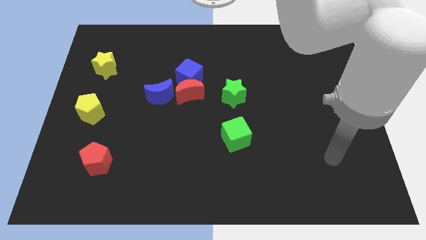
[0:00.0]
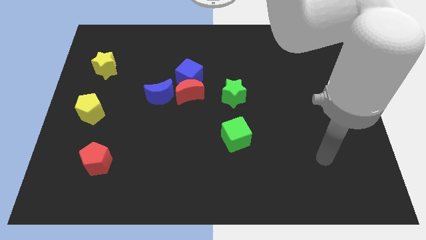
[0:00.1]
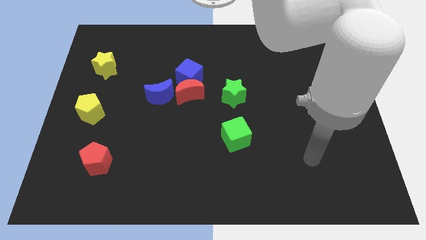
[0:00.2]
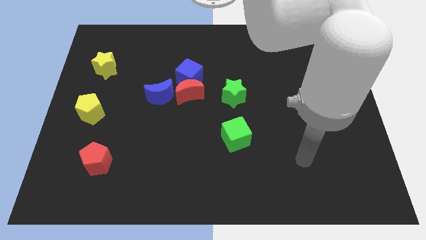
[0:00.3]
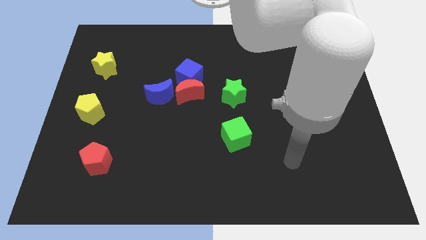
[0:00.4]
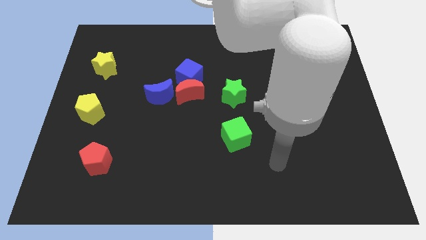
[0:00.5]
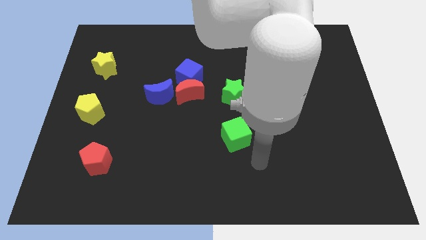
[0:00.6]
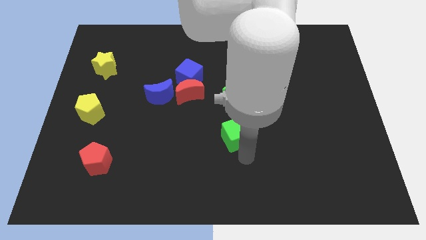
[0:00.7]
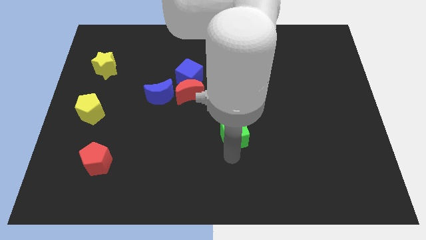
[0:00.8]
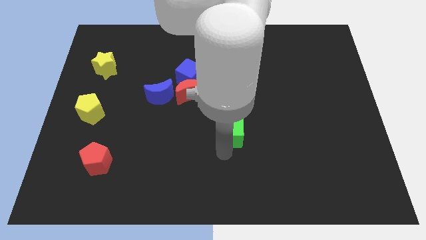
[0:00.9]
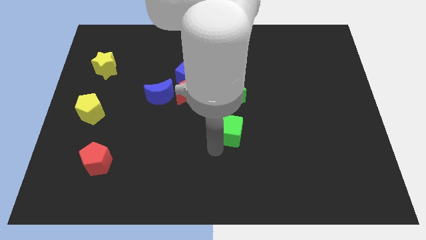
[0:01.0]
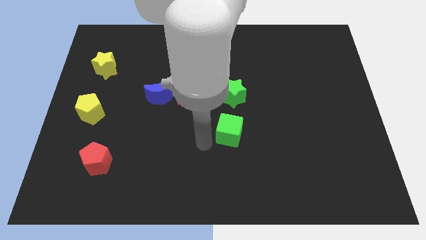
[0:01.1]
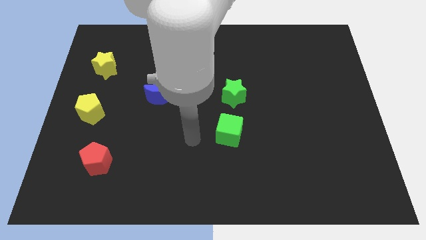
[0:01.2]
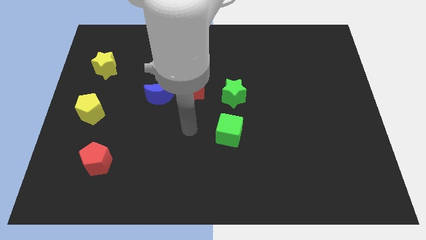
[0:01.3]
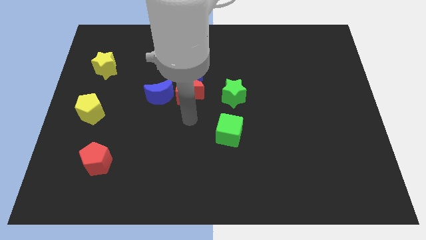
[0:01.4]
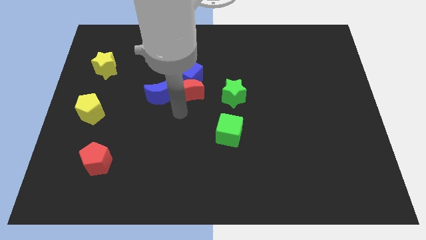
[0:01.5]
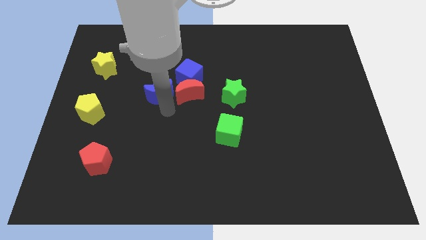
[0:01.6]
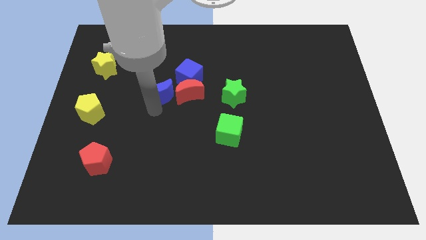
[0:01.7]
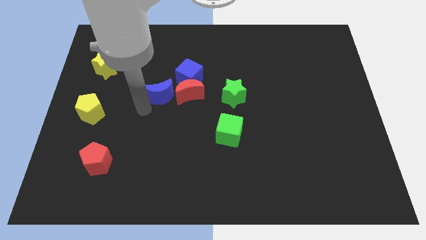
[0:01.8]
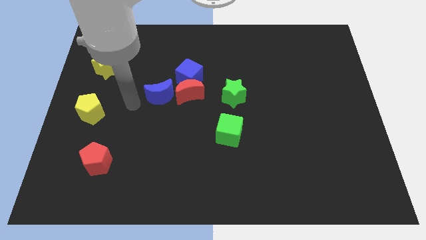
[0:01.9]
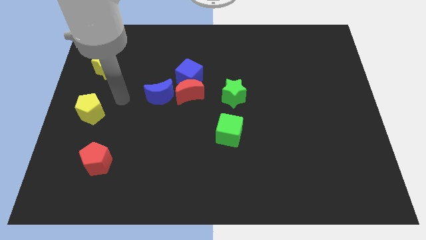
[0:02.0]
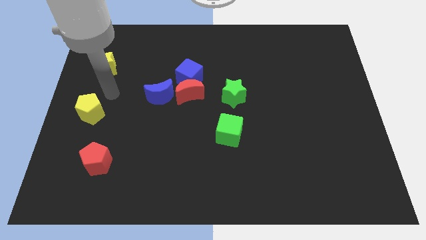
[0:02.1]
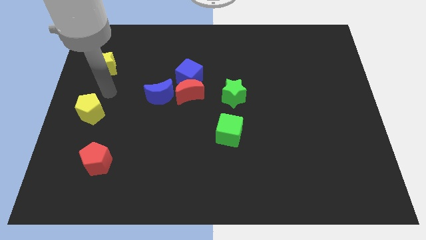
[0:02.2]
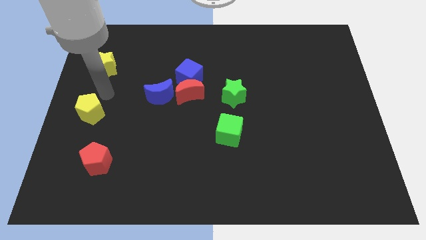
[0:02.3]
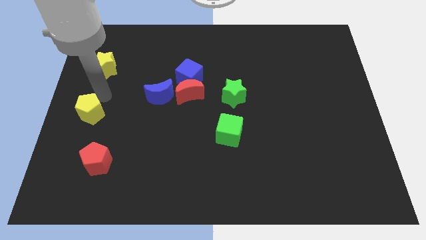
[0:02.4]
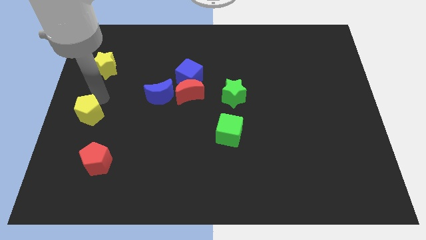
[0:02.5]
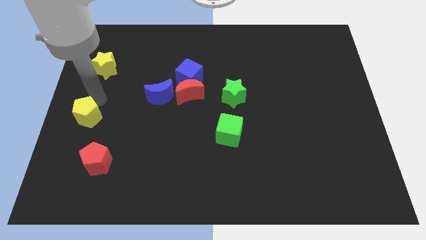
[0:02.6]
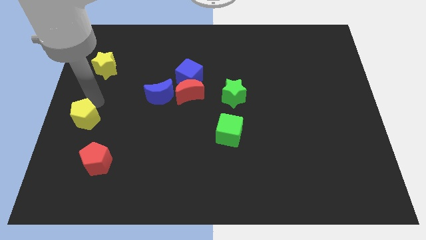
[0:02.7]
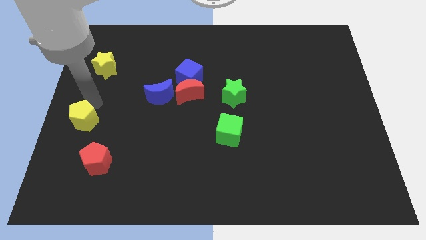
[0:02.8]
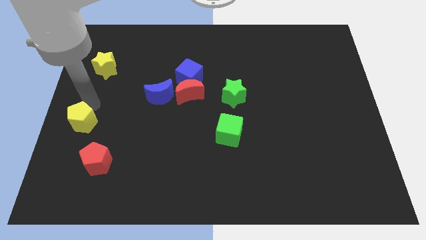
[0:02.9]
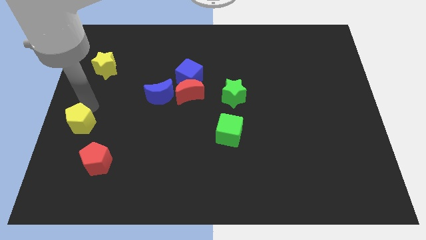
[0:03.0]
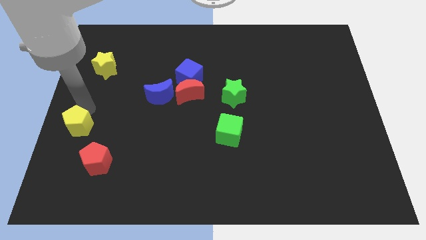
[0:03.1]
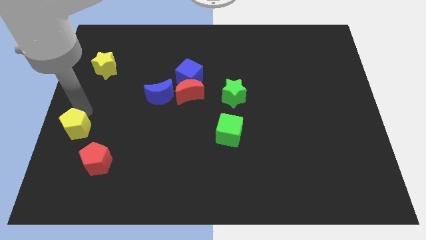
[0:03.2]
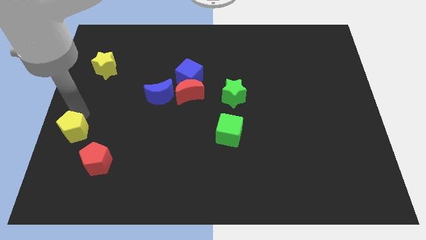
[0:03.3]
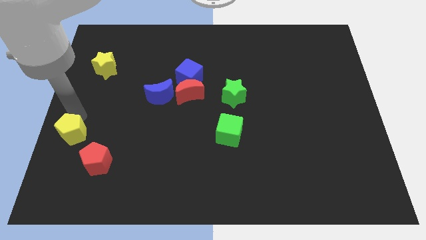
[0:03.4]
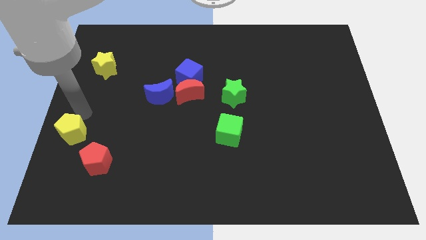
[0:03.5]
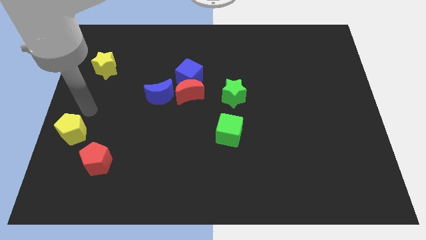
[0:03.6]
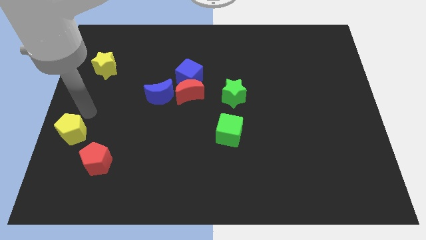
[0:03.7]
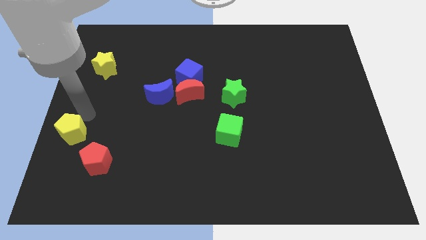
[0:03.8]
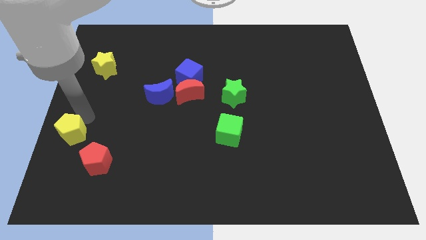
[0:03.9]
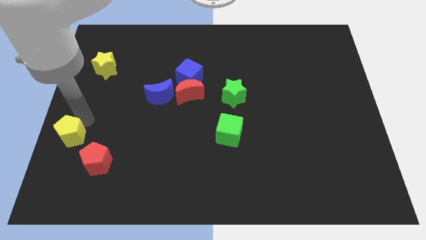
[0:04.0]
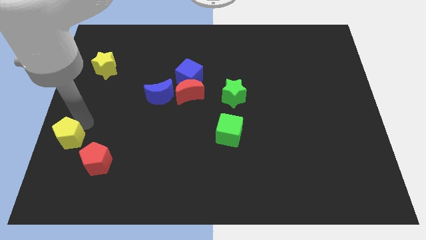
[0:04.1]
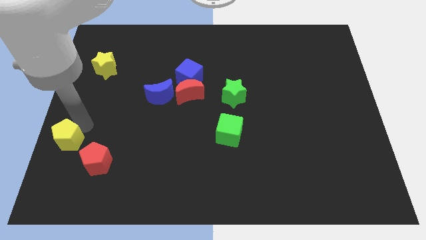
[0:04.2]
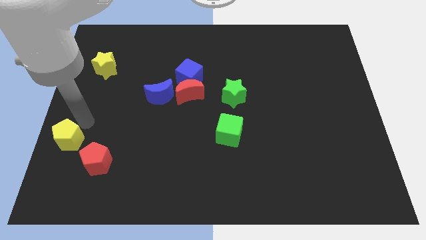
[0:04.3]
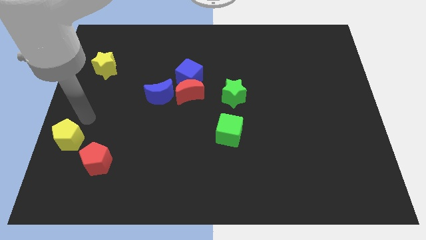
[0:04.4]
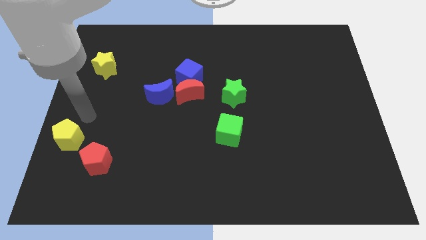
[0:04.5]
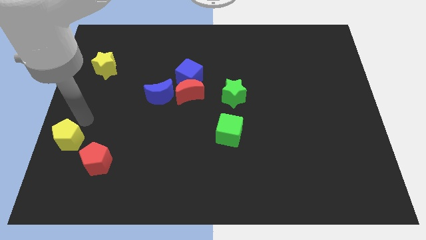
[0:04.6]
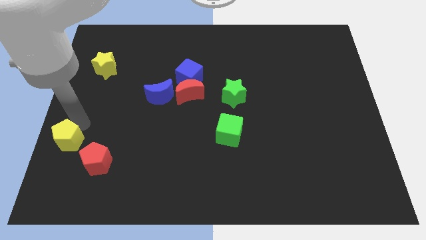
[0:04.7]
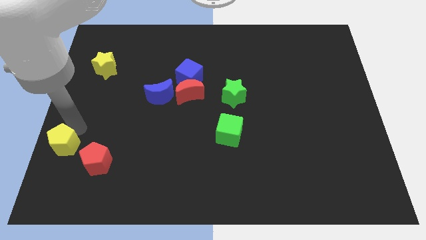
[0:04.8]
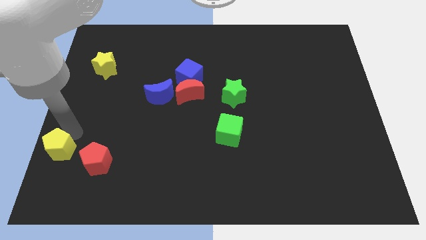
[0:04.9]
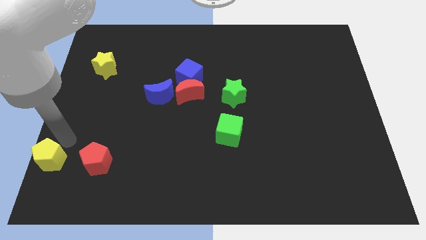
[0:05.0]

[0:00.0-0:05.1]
push the yellow pentagon to the lower left corner
